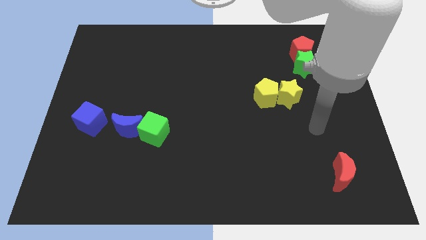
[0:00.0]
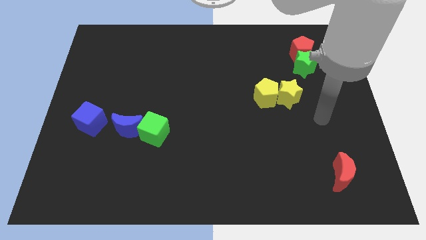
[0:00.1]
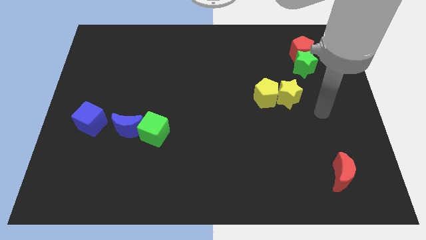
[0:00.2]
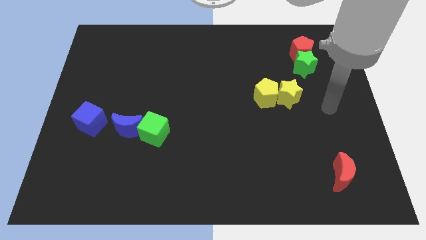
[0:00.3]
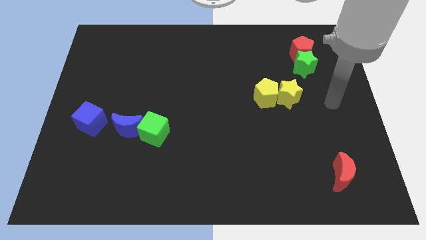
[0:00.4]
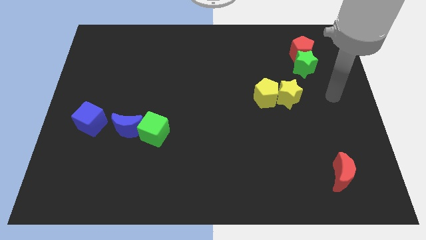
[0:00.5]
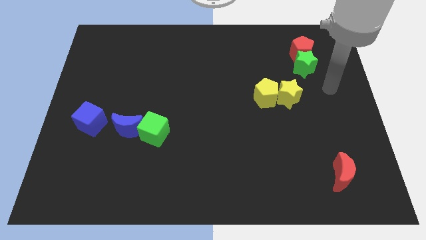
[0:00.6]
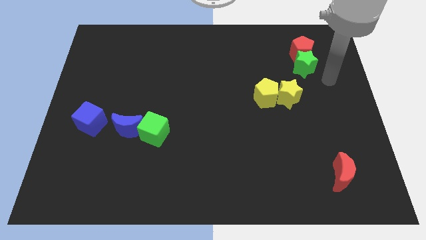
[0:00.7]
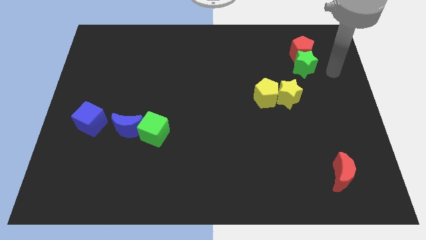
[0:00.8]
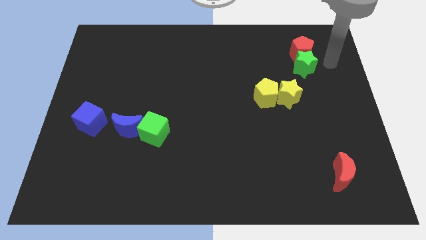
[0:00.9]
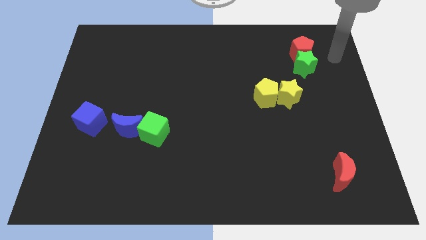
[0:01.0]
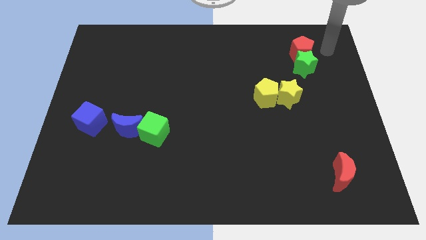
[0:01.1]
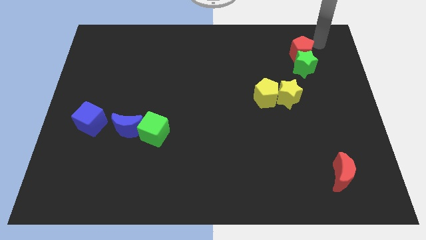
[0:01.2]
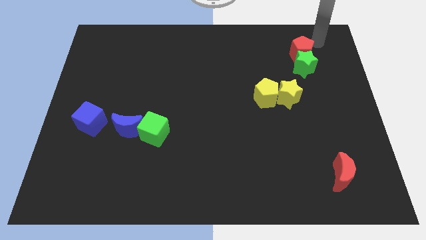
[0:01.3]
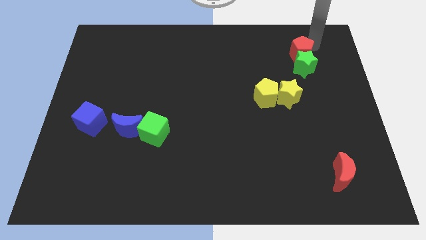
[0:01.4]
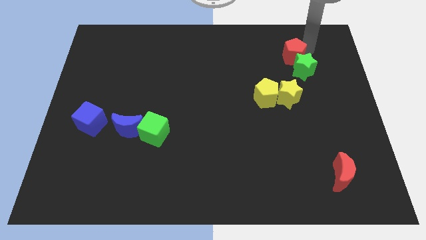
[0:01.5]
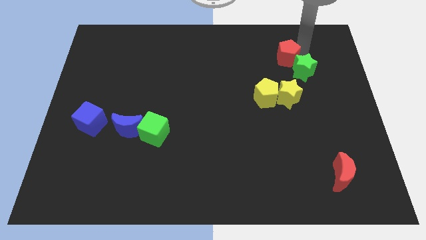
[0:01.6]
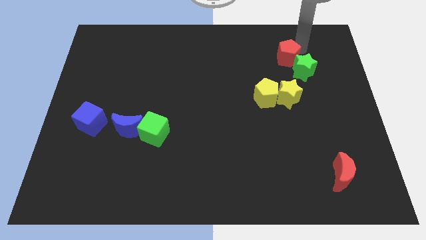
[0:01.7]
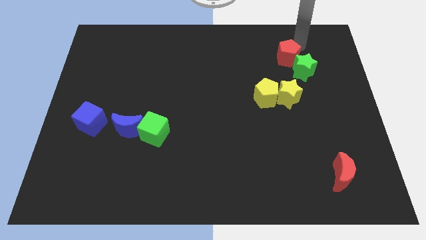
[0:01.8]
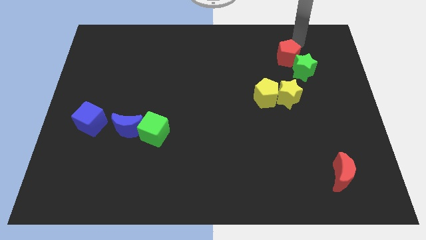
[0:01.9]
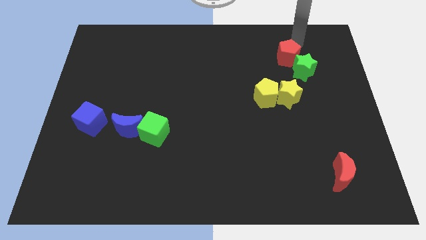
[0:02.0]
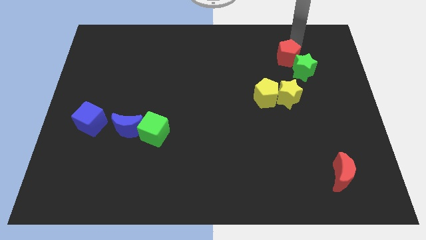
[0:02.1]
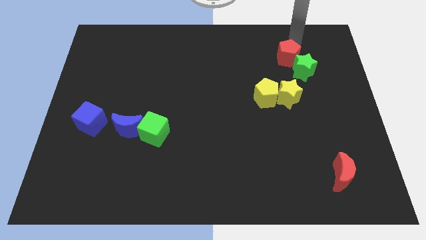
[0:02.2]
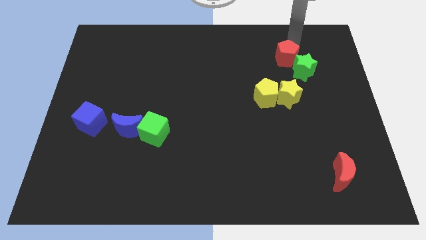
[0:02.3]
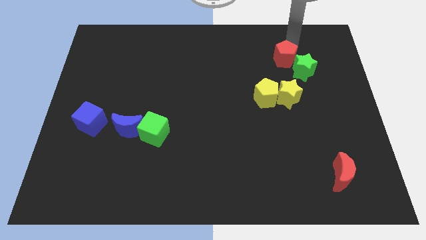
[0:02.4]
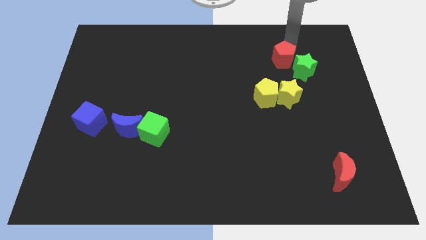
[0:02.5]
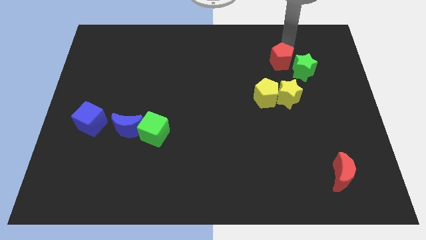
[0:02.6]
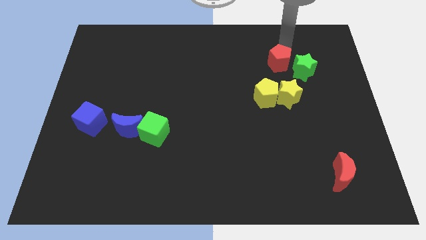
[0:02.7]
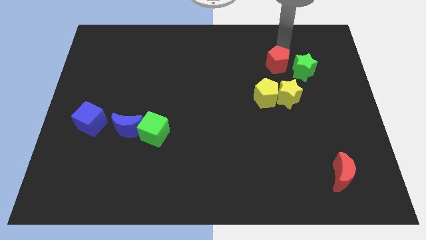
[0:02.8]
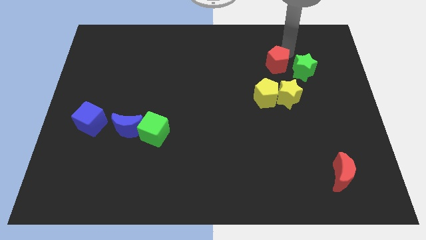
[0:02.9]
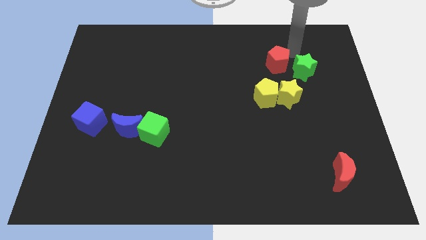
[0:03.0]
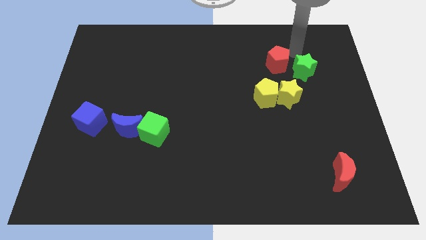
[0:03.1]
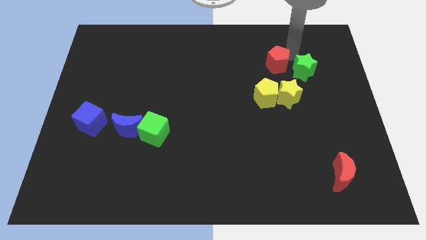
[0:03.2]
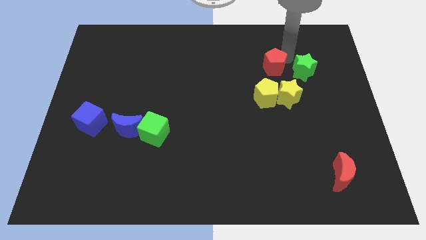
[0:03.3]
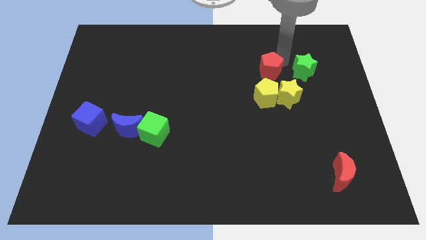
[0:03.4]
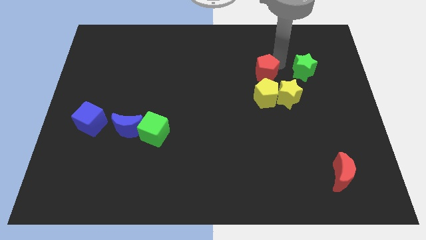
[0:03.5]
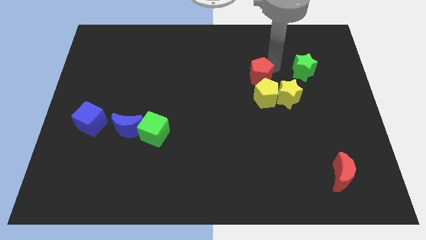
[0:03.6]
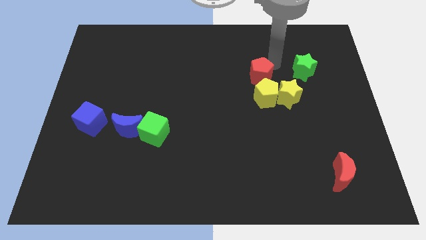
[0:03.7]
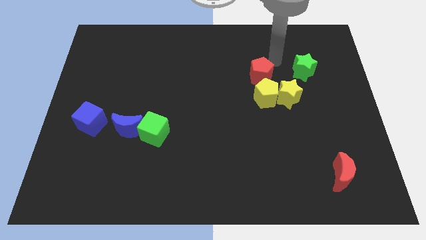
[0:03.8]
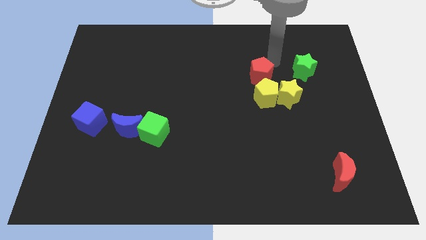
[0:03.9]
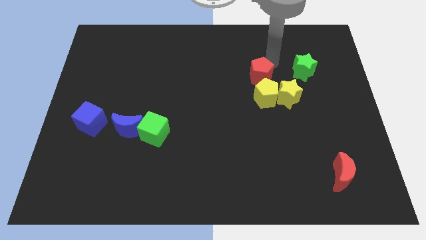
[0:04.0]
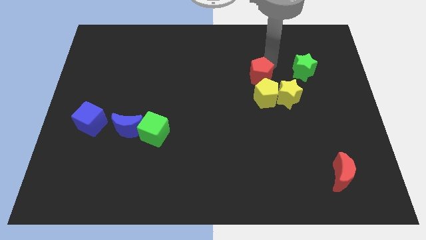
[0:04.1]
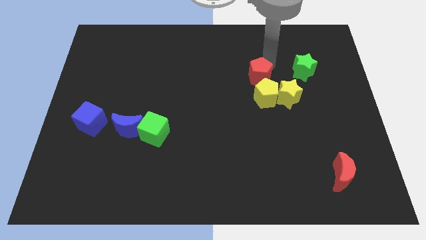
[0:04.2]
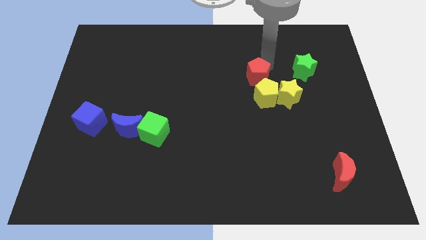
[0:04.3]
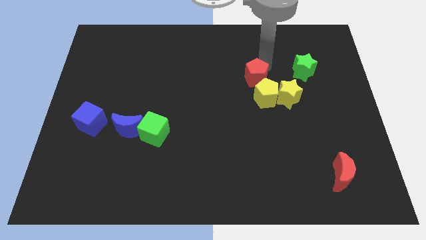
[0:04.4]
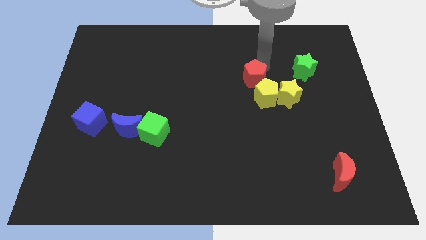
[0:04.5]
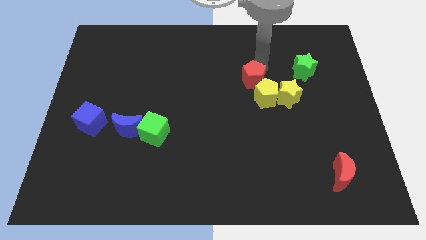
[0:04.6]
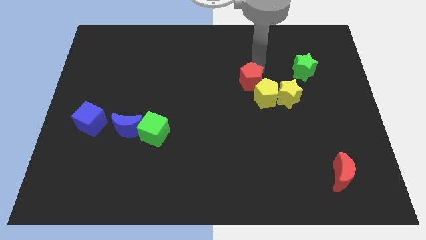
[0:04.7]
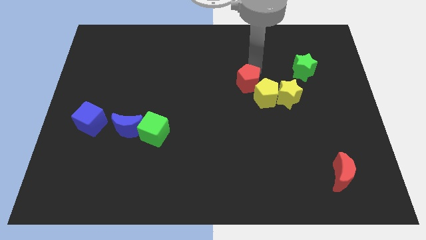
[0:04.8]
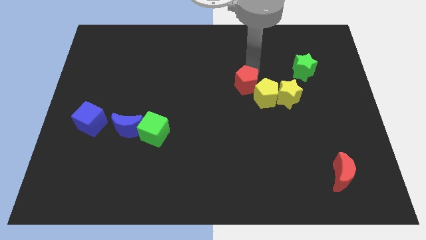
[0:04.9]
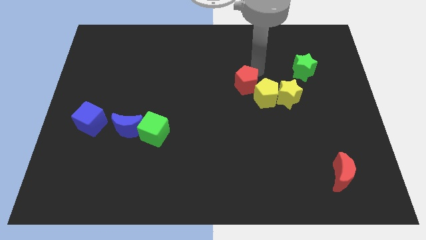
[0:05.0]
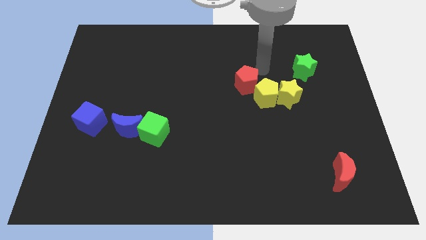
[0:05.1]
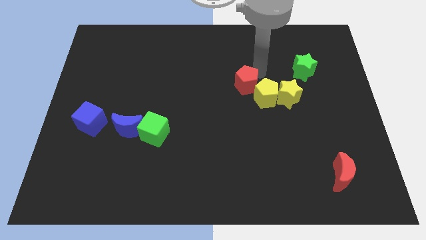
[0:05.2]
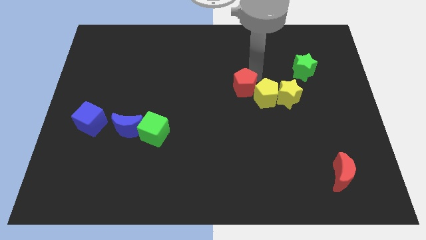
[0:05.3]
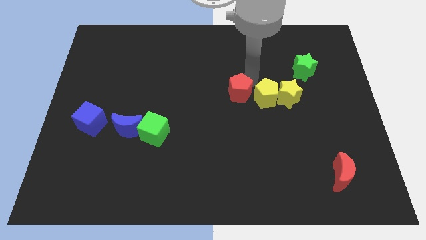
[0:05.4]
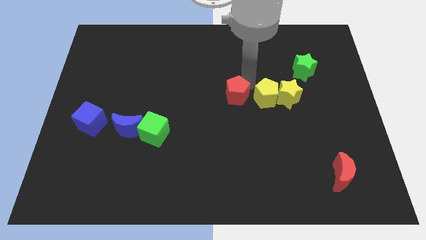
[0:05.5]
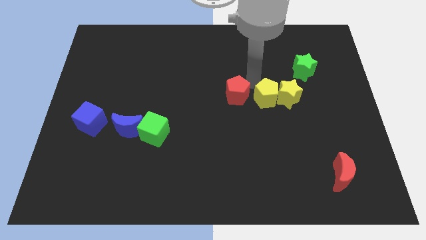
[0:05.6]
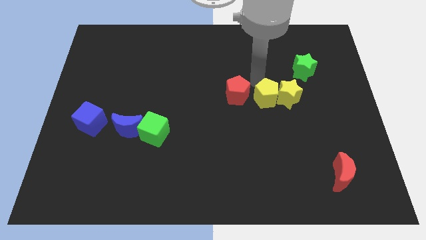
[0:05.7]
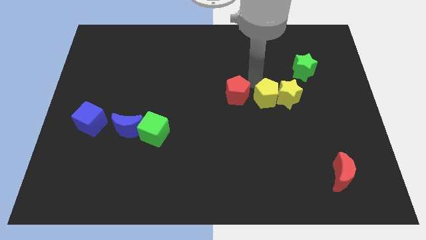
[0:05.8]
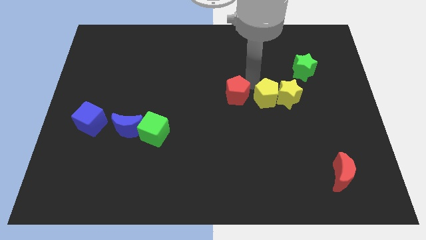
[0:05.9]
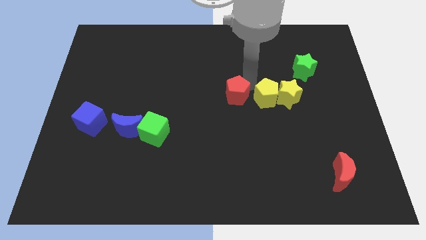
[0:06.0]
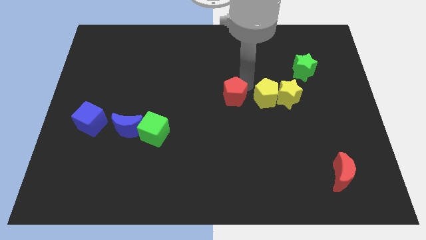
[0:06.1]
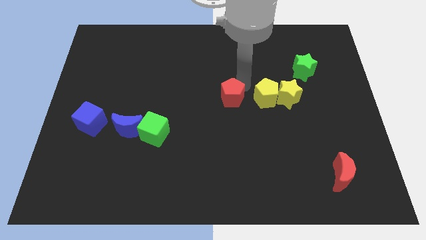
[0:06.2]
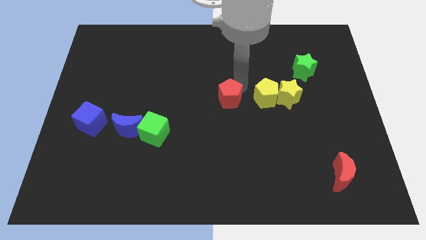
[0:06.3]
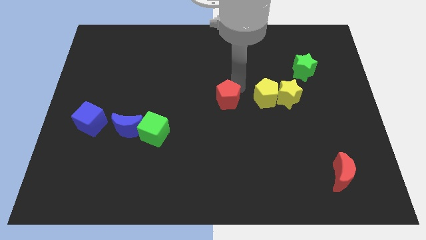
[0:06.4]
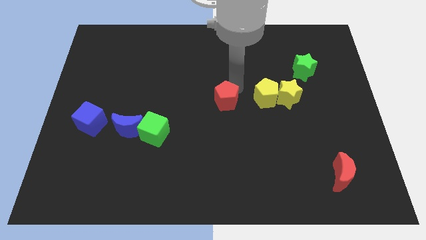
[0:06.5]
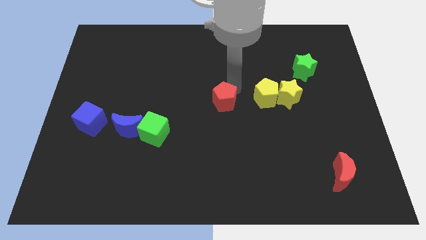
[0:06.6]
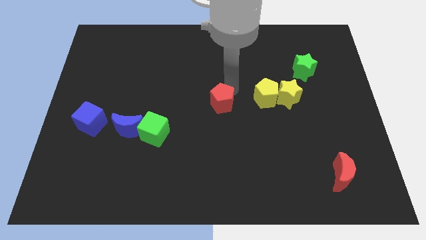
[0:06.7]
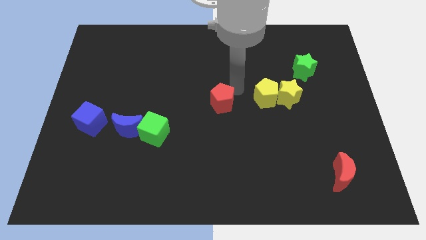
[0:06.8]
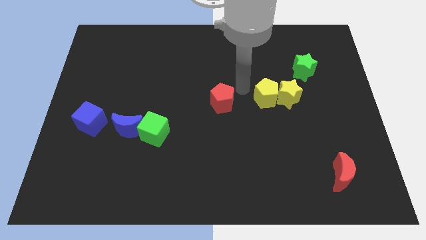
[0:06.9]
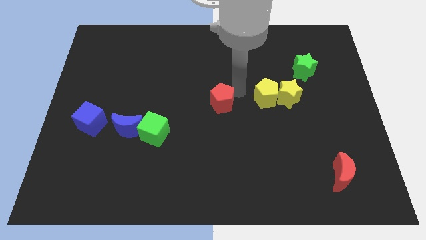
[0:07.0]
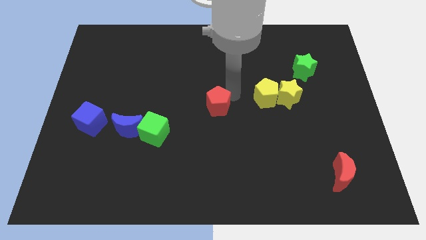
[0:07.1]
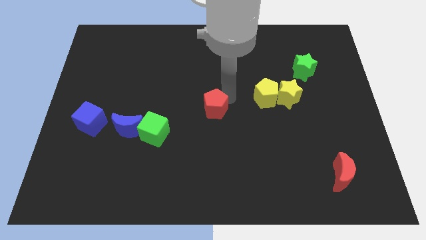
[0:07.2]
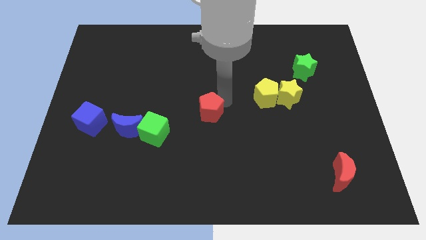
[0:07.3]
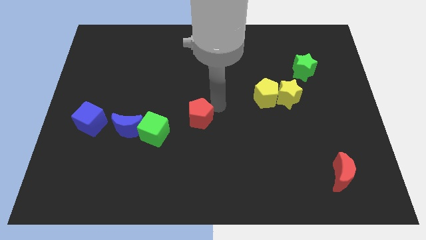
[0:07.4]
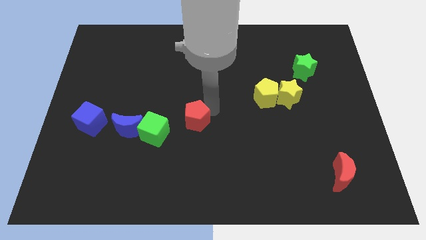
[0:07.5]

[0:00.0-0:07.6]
move the red pentagon right of the blue moon
